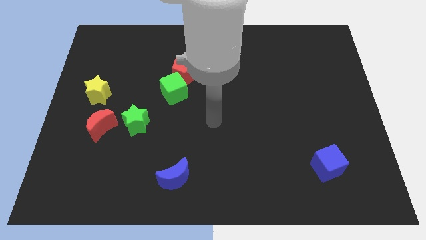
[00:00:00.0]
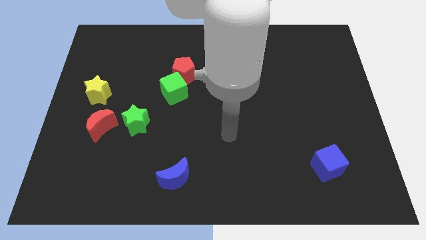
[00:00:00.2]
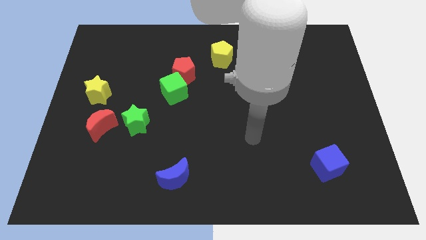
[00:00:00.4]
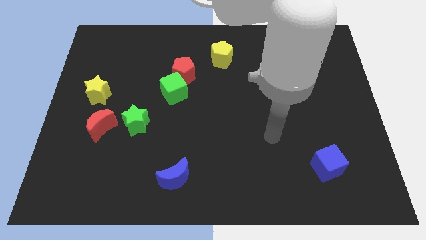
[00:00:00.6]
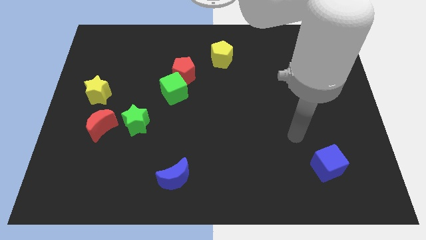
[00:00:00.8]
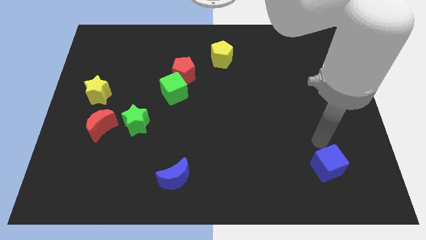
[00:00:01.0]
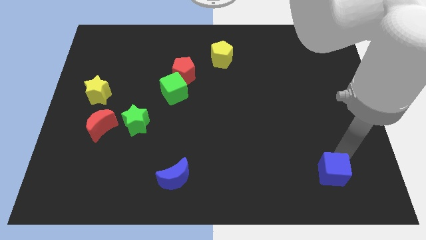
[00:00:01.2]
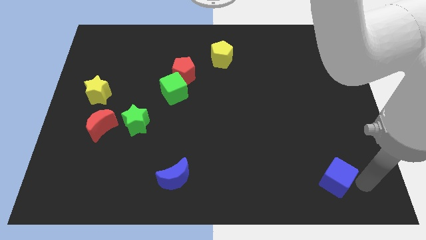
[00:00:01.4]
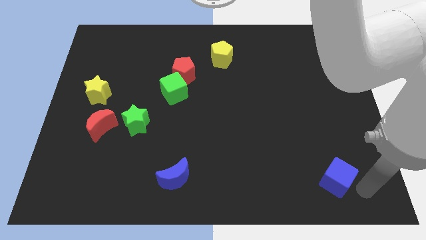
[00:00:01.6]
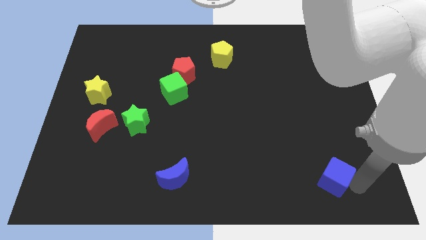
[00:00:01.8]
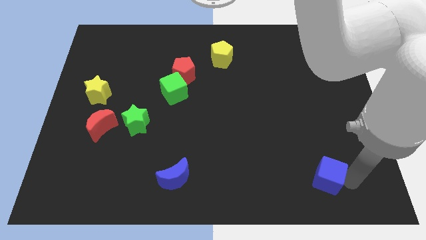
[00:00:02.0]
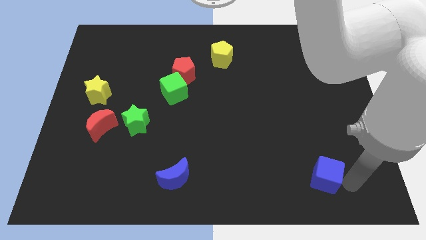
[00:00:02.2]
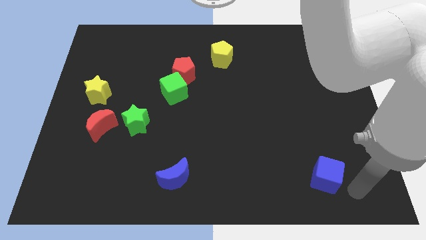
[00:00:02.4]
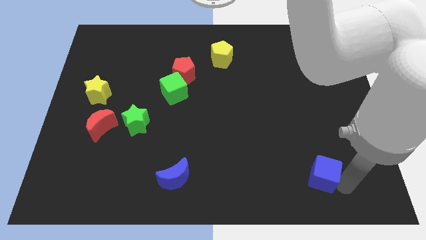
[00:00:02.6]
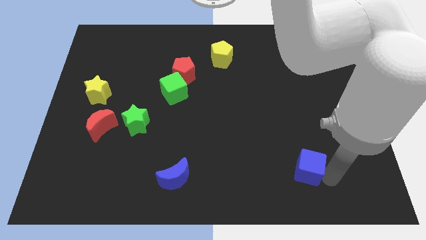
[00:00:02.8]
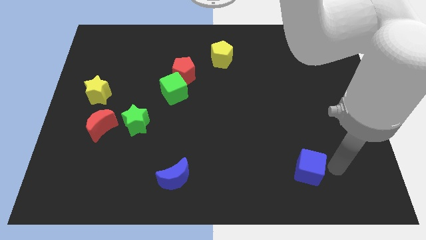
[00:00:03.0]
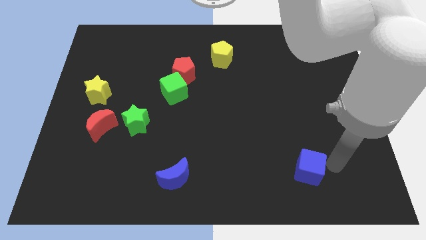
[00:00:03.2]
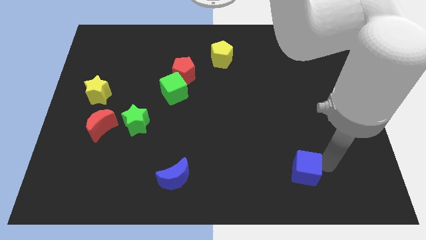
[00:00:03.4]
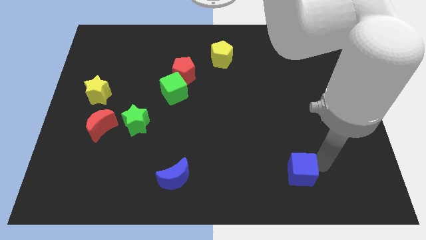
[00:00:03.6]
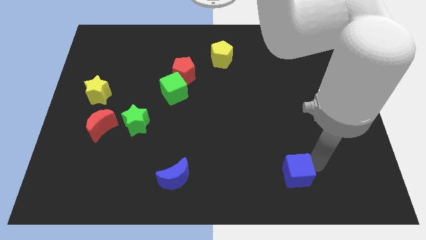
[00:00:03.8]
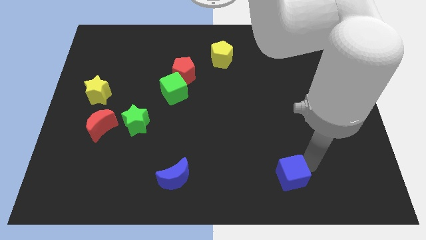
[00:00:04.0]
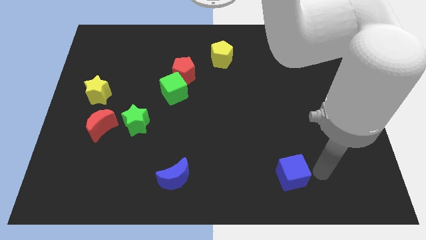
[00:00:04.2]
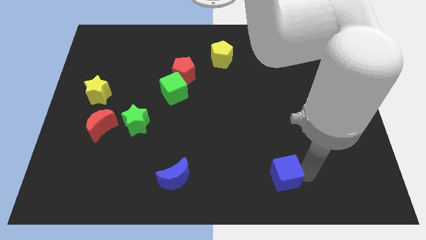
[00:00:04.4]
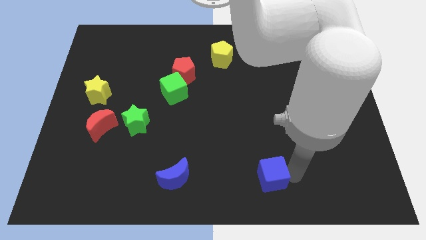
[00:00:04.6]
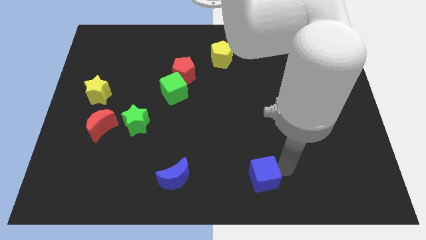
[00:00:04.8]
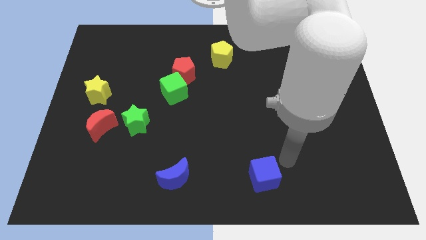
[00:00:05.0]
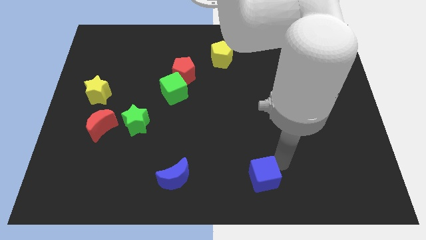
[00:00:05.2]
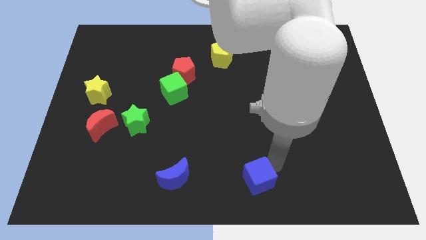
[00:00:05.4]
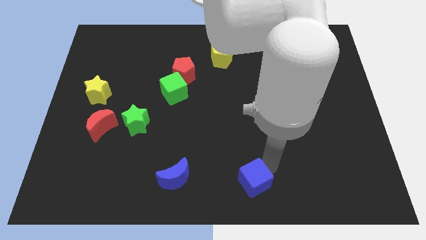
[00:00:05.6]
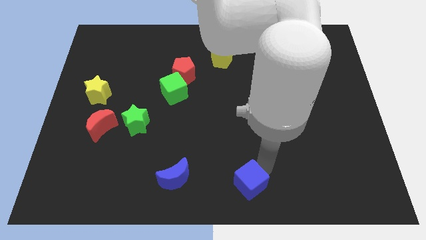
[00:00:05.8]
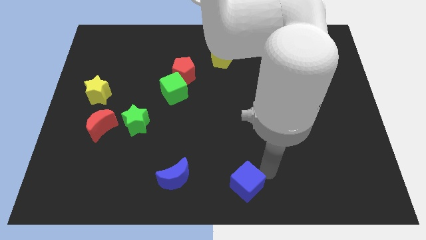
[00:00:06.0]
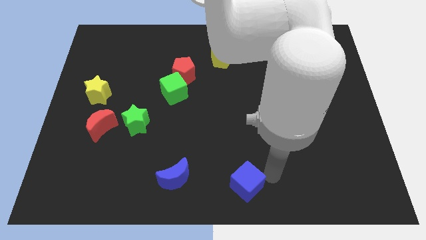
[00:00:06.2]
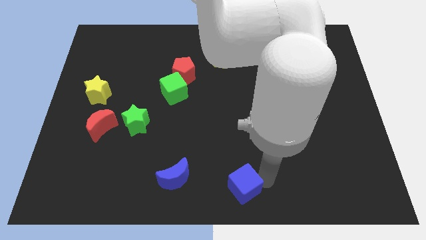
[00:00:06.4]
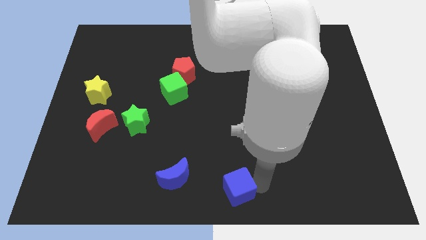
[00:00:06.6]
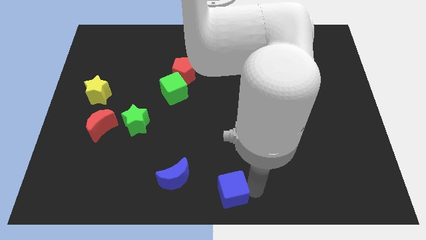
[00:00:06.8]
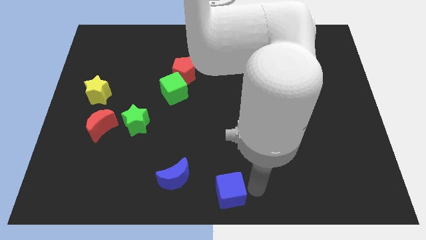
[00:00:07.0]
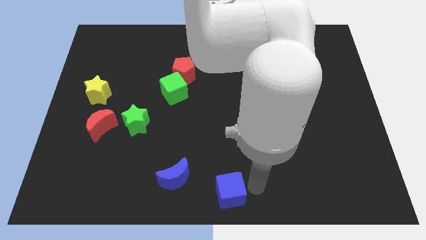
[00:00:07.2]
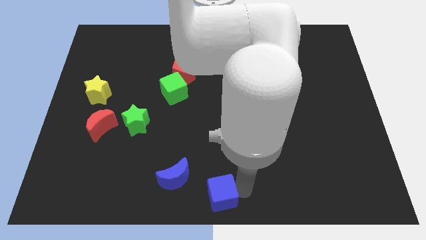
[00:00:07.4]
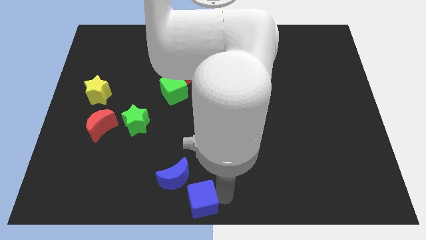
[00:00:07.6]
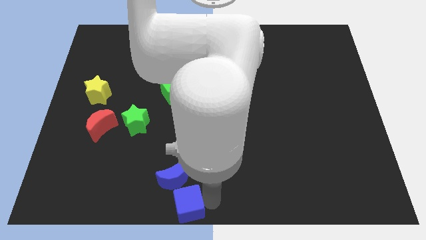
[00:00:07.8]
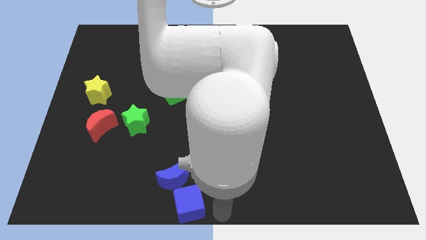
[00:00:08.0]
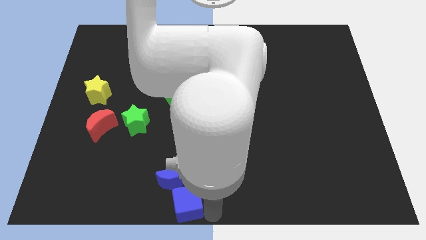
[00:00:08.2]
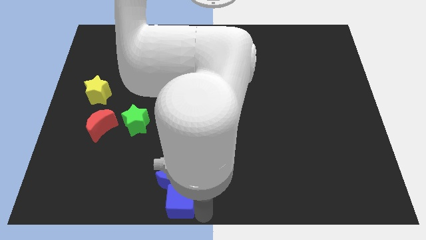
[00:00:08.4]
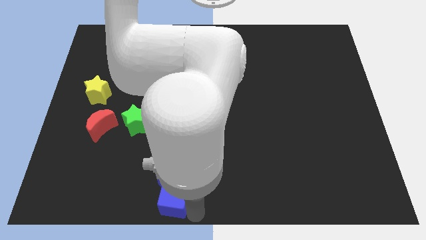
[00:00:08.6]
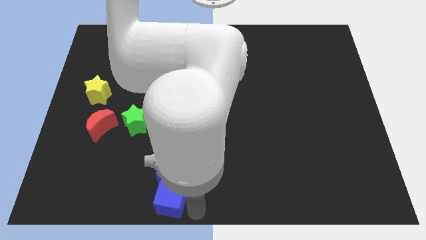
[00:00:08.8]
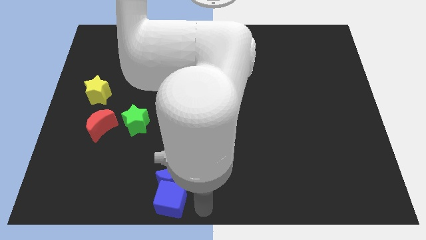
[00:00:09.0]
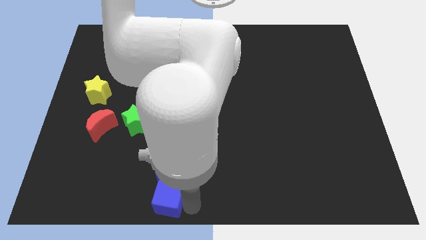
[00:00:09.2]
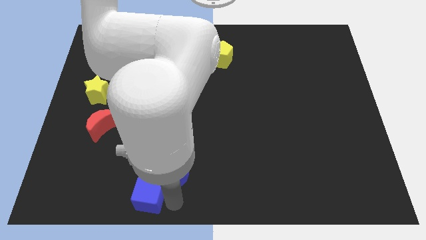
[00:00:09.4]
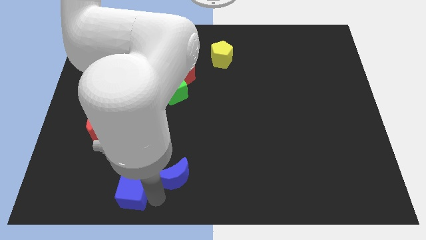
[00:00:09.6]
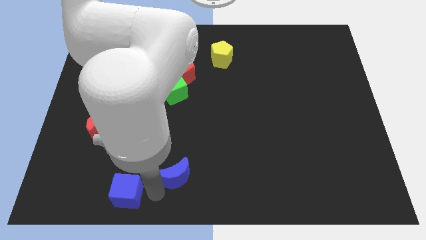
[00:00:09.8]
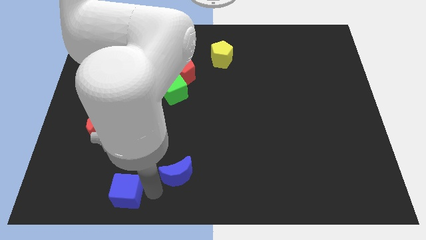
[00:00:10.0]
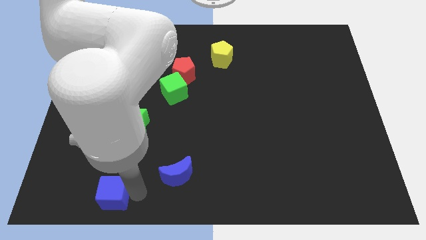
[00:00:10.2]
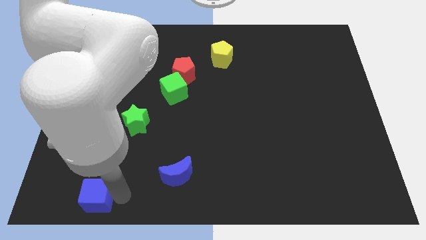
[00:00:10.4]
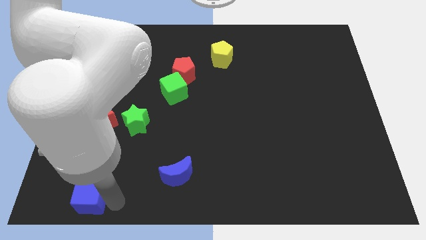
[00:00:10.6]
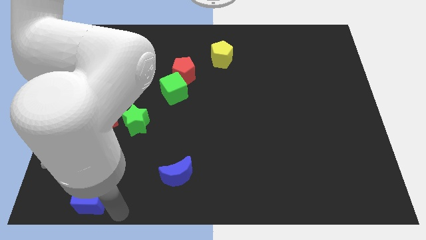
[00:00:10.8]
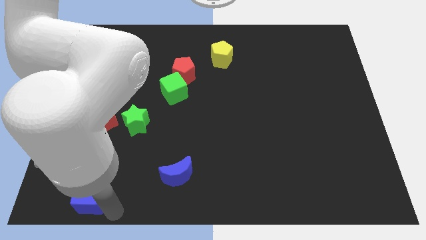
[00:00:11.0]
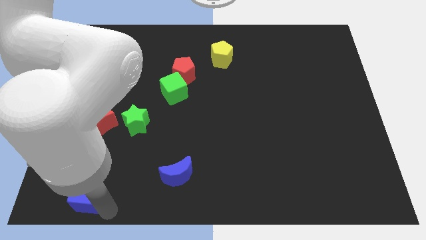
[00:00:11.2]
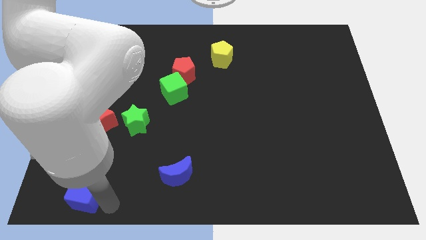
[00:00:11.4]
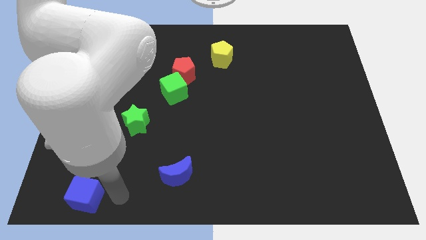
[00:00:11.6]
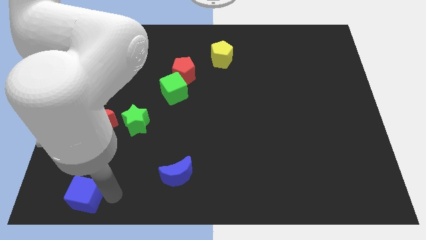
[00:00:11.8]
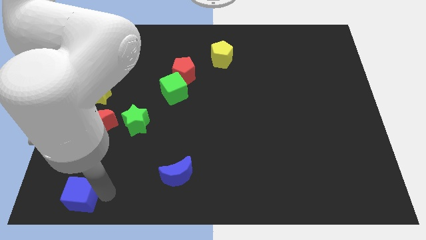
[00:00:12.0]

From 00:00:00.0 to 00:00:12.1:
slide the blue cube to the bottom left of the board
